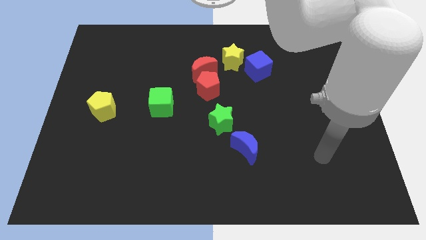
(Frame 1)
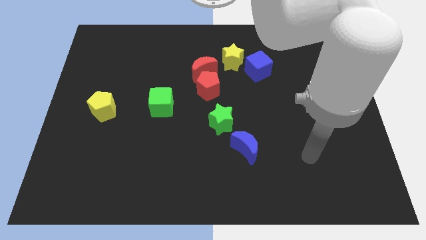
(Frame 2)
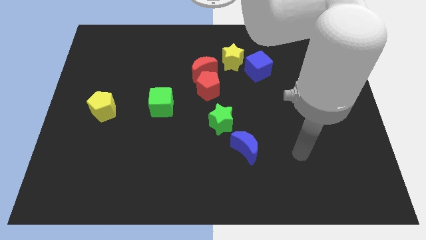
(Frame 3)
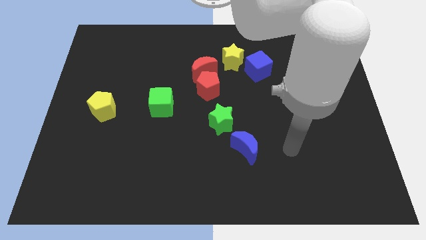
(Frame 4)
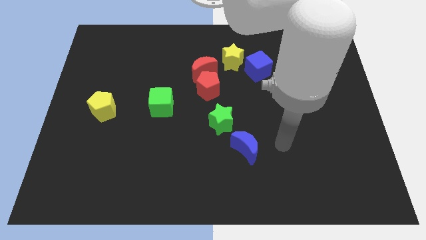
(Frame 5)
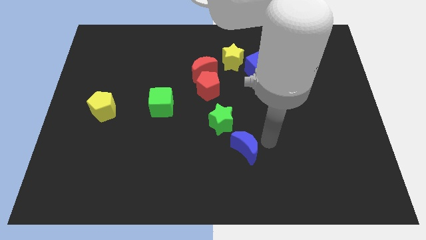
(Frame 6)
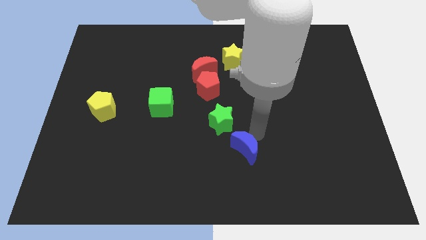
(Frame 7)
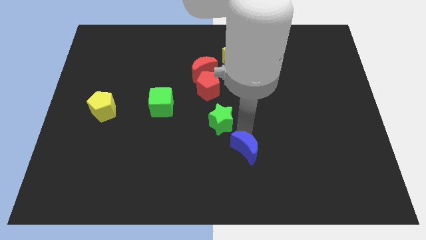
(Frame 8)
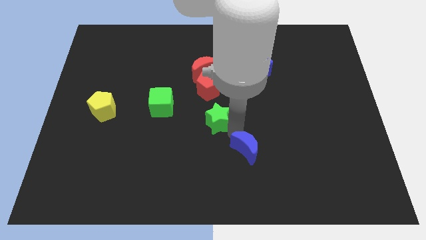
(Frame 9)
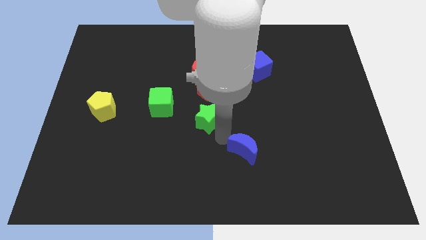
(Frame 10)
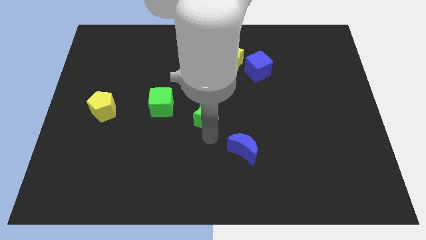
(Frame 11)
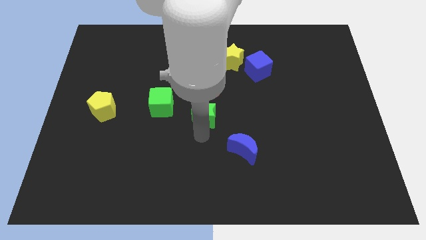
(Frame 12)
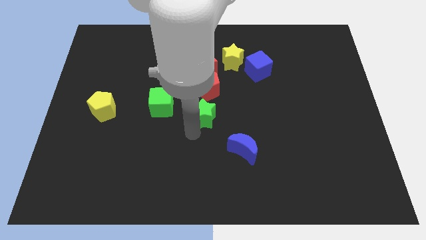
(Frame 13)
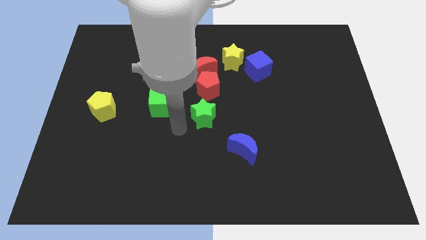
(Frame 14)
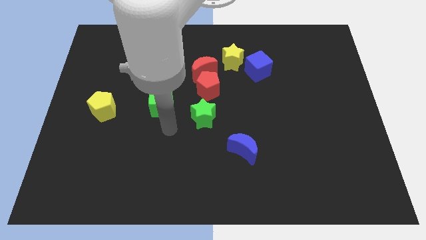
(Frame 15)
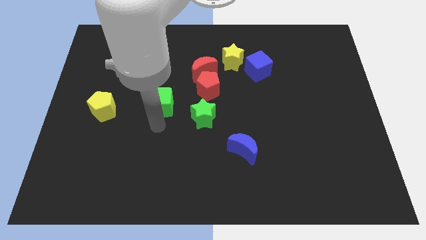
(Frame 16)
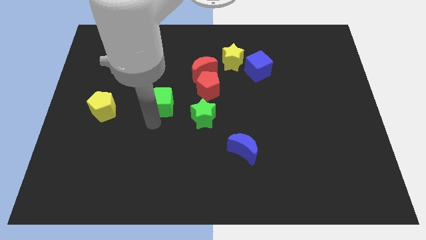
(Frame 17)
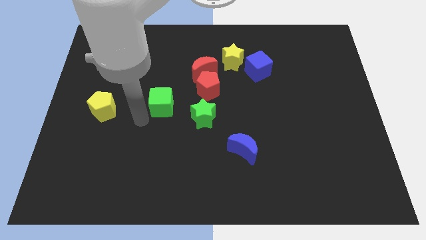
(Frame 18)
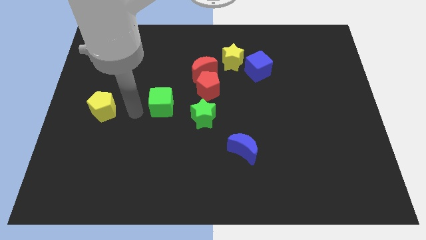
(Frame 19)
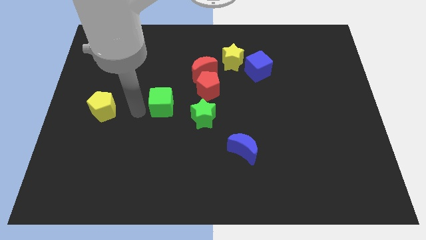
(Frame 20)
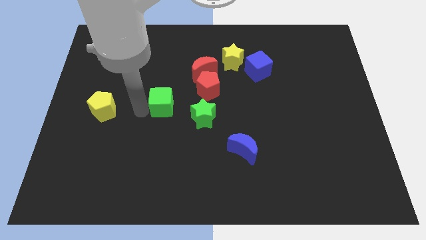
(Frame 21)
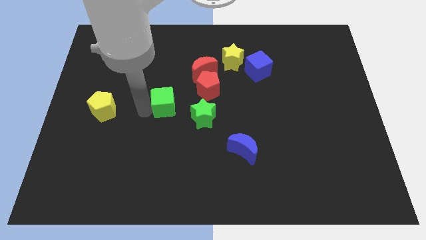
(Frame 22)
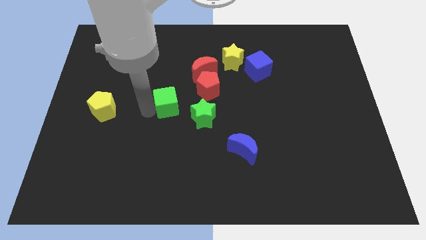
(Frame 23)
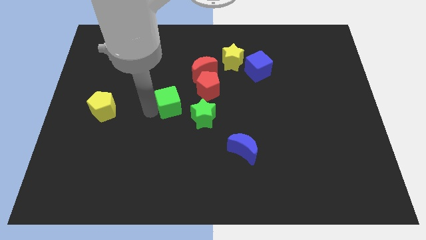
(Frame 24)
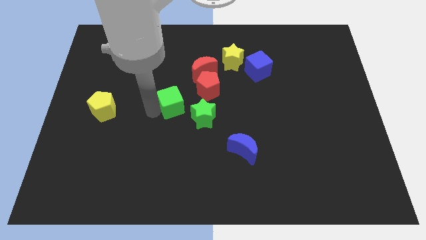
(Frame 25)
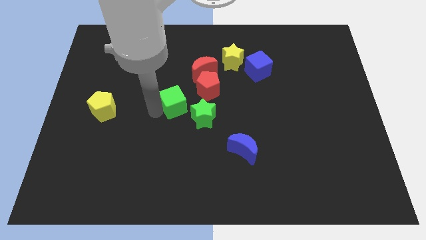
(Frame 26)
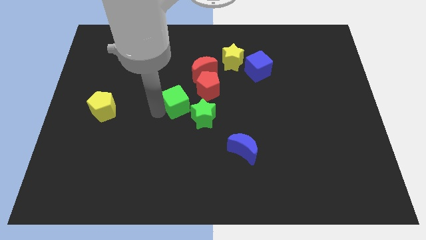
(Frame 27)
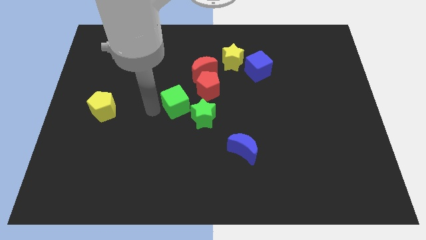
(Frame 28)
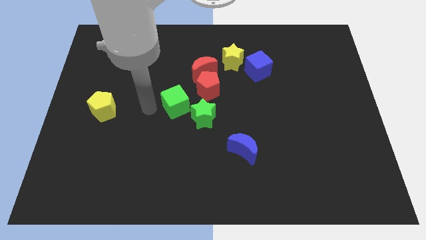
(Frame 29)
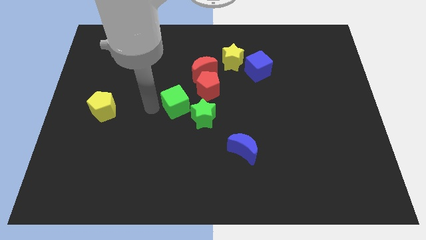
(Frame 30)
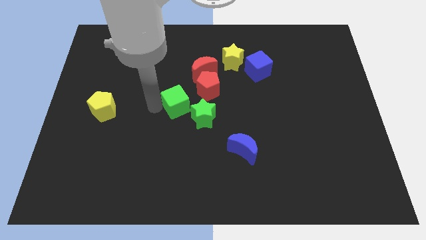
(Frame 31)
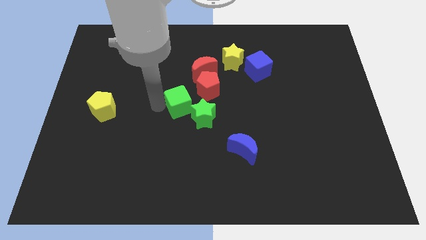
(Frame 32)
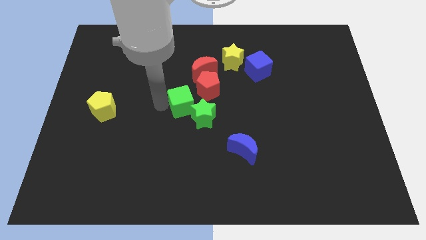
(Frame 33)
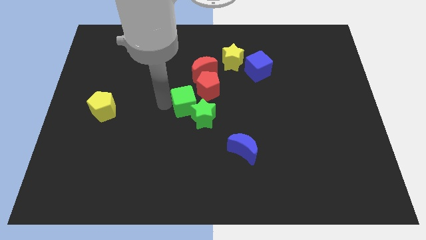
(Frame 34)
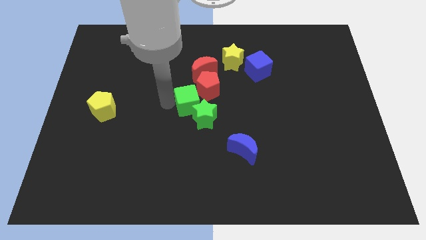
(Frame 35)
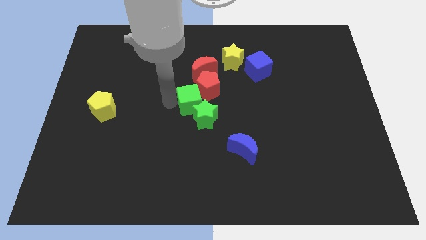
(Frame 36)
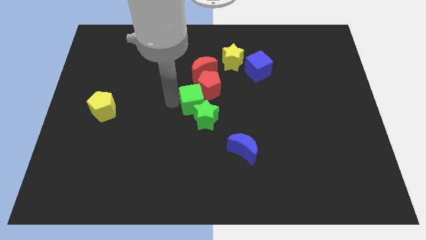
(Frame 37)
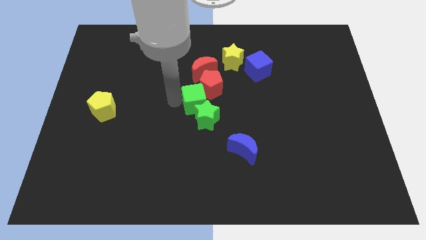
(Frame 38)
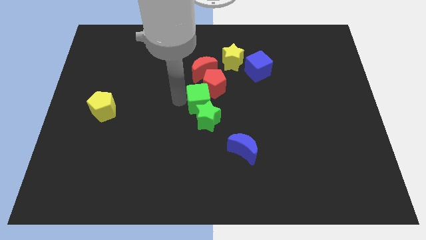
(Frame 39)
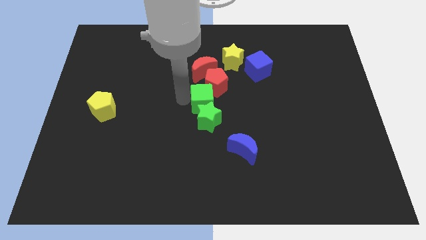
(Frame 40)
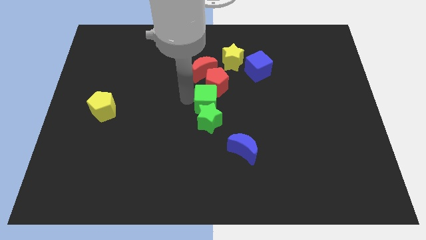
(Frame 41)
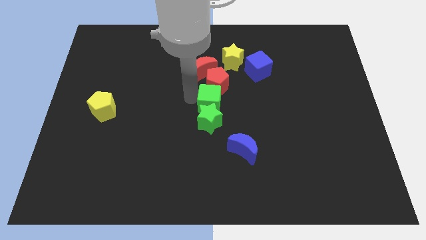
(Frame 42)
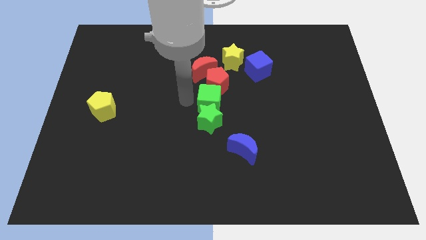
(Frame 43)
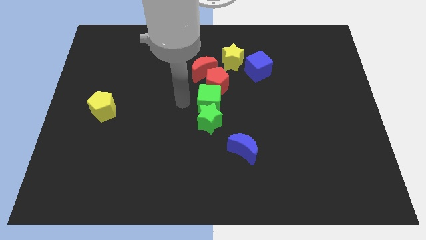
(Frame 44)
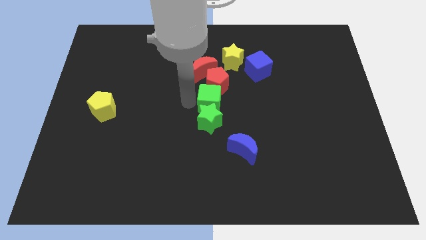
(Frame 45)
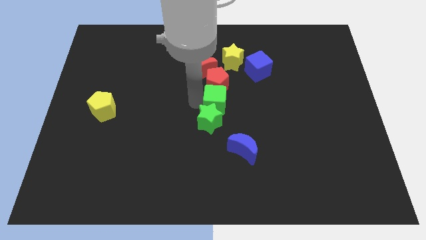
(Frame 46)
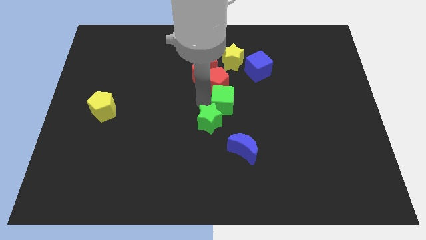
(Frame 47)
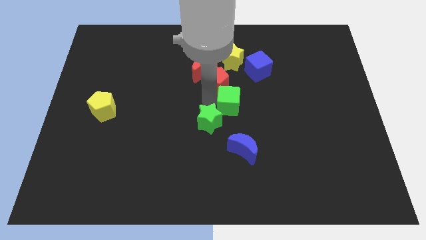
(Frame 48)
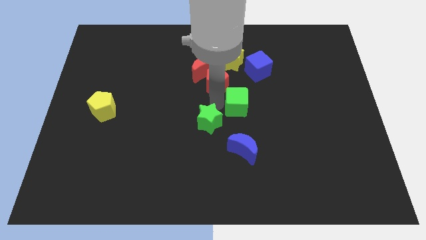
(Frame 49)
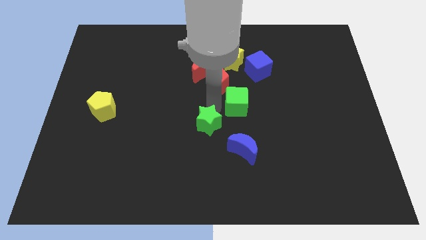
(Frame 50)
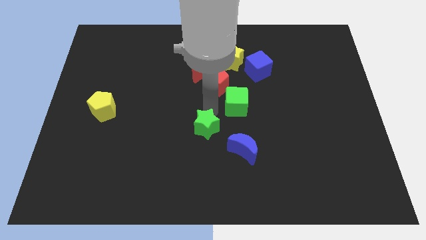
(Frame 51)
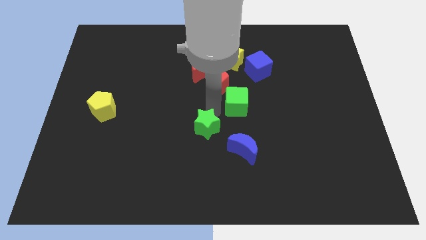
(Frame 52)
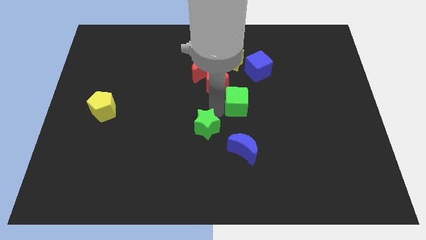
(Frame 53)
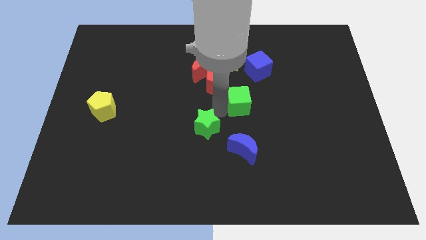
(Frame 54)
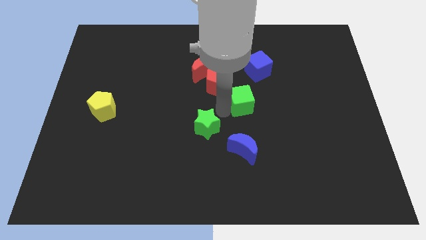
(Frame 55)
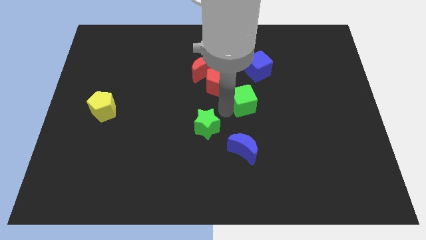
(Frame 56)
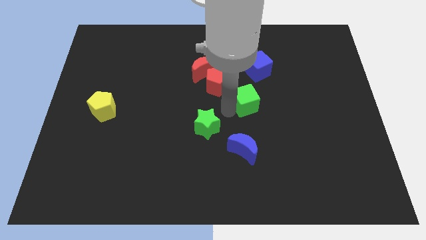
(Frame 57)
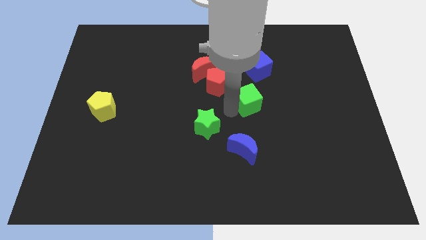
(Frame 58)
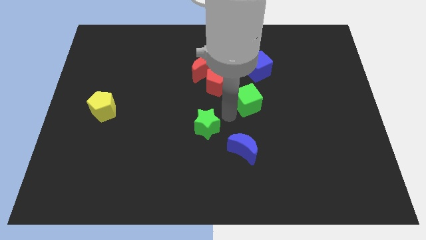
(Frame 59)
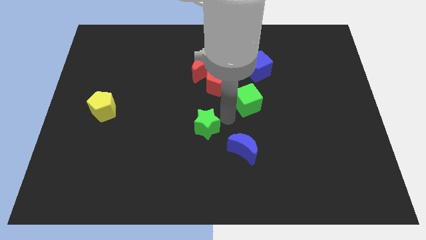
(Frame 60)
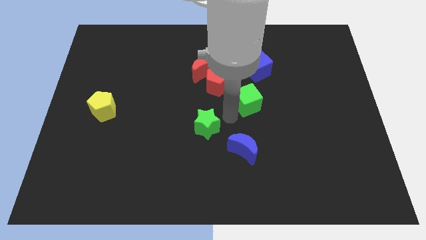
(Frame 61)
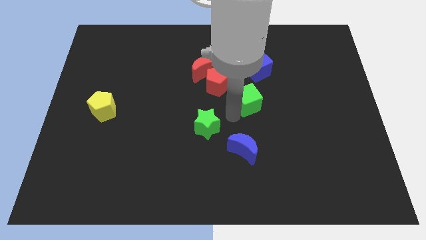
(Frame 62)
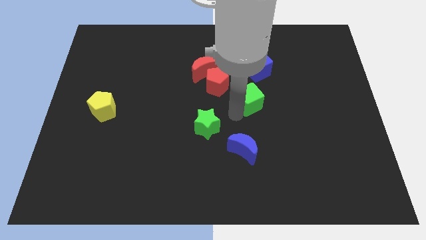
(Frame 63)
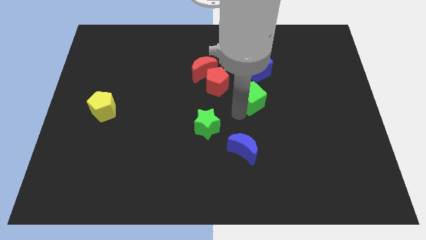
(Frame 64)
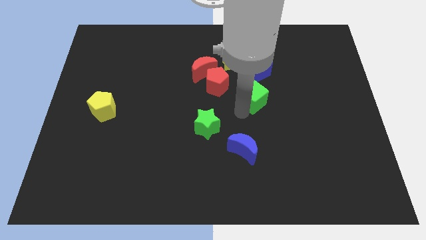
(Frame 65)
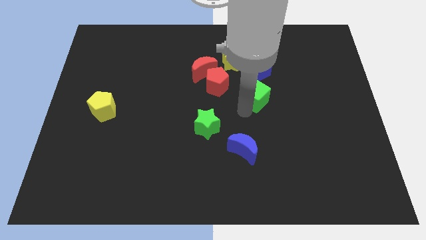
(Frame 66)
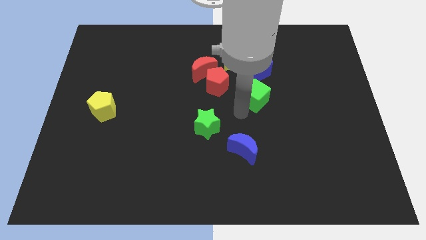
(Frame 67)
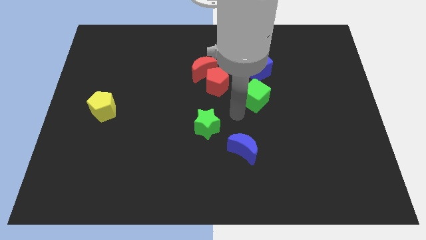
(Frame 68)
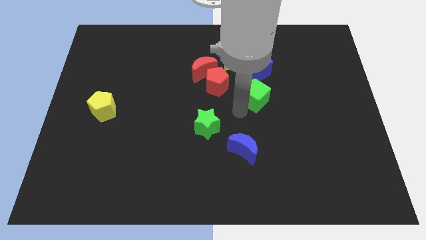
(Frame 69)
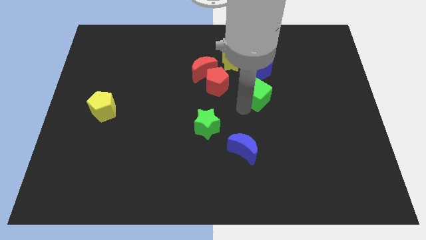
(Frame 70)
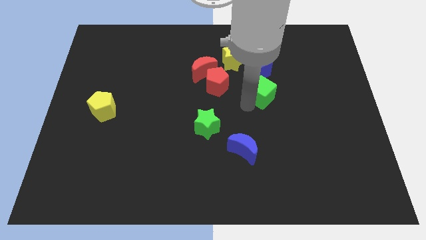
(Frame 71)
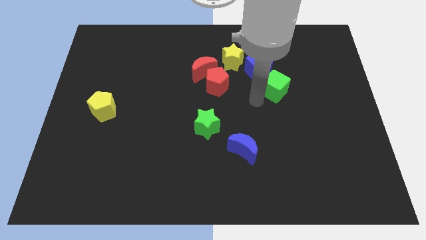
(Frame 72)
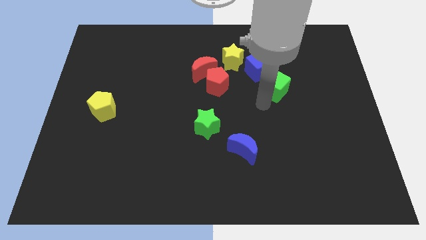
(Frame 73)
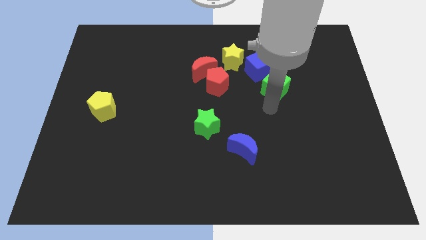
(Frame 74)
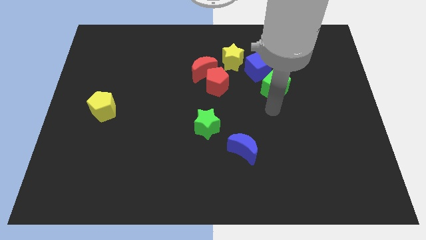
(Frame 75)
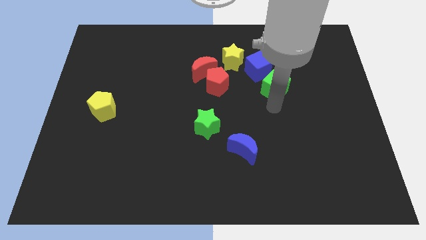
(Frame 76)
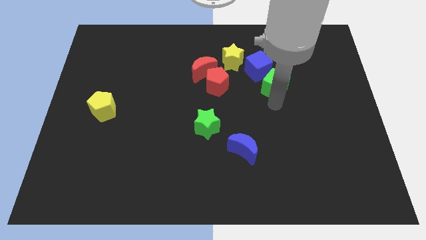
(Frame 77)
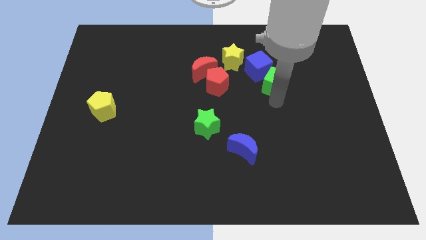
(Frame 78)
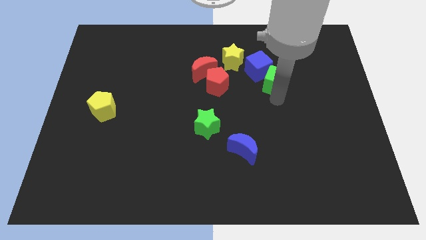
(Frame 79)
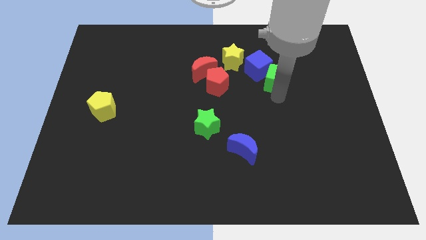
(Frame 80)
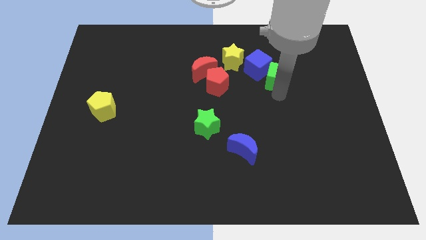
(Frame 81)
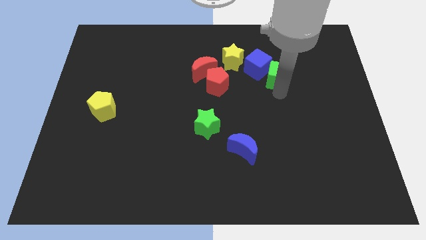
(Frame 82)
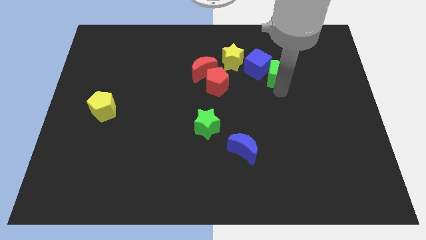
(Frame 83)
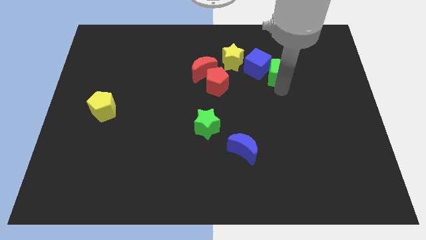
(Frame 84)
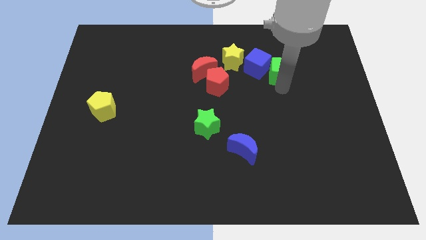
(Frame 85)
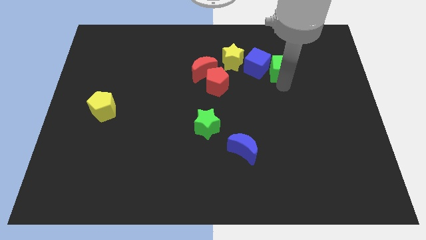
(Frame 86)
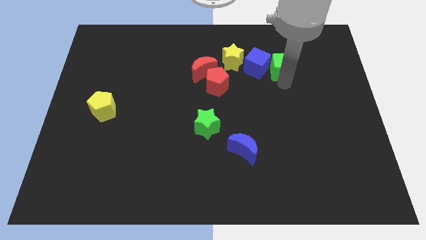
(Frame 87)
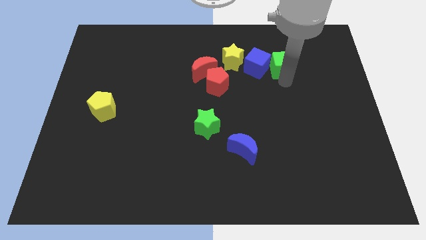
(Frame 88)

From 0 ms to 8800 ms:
push the green cube to the top right side of the blue cube
